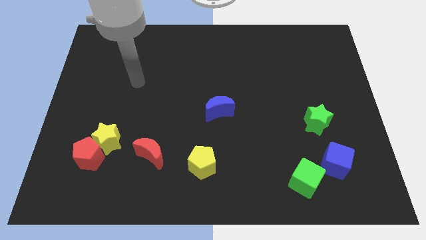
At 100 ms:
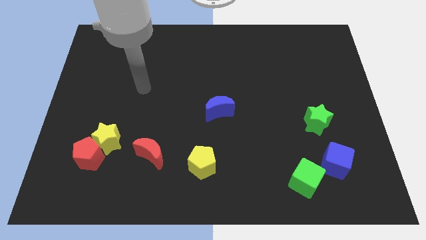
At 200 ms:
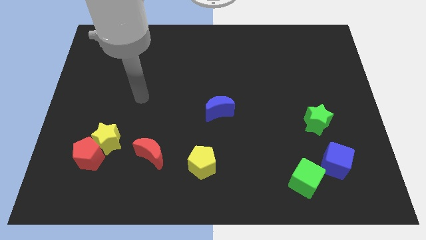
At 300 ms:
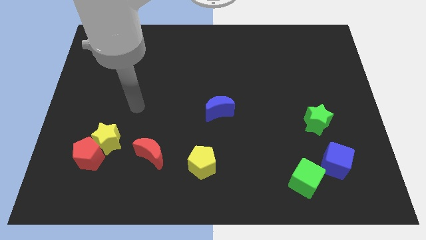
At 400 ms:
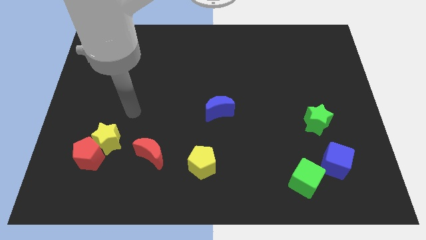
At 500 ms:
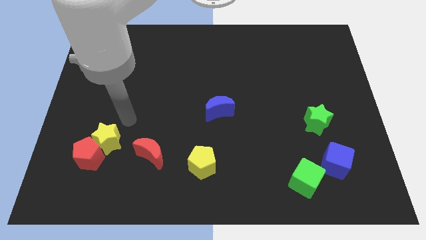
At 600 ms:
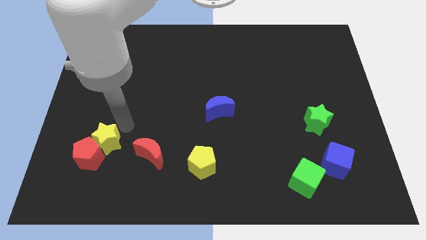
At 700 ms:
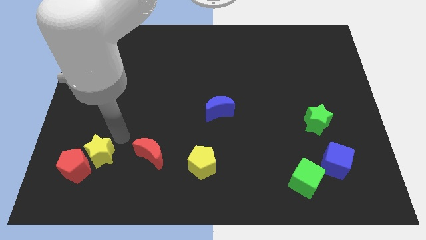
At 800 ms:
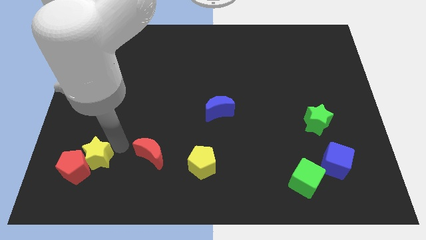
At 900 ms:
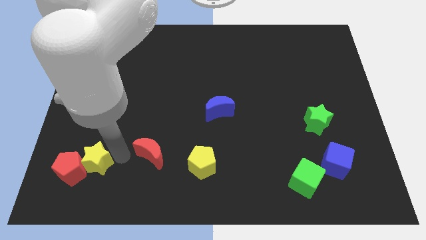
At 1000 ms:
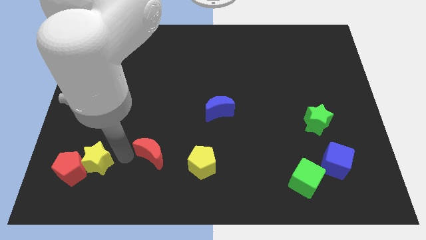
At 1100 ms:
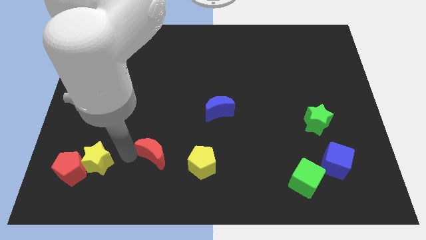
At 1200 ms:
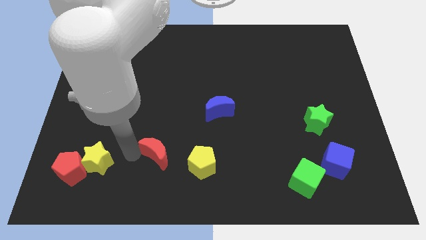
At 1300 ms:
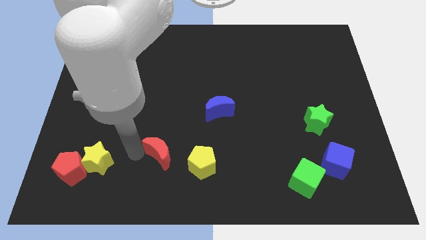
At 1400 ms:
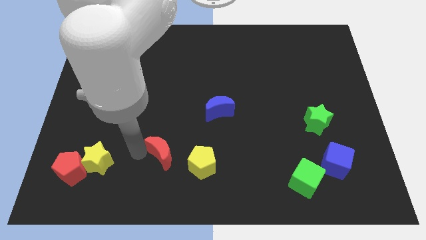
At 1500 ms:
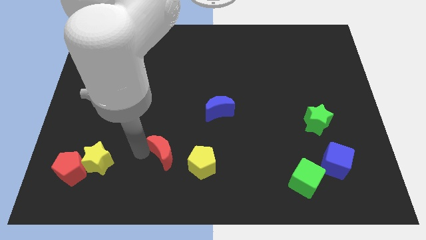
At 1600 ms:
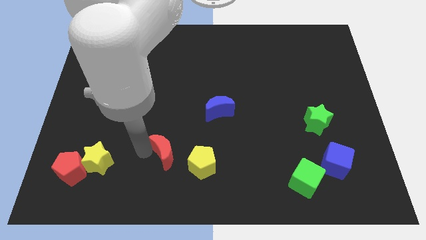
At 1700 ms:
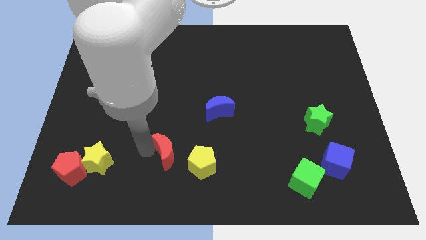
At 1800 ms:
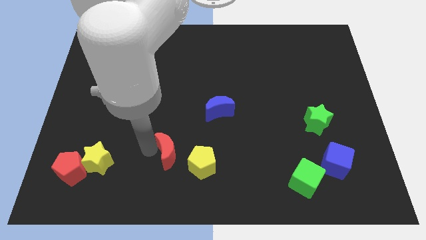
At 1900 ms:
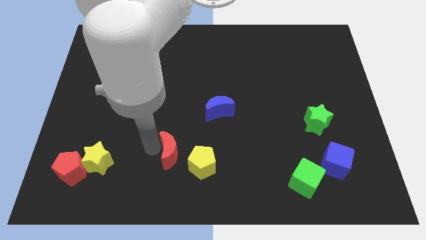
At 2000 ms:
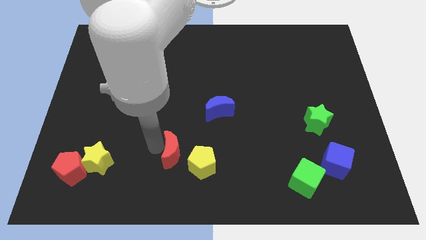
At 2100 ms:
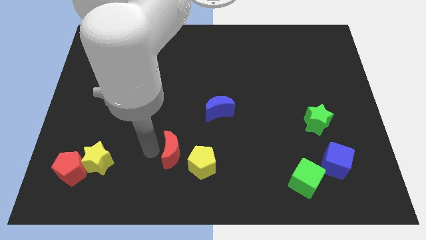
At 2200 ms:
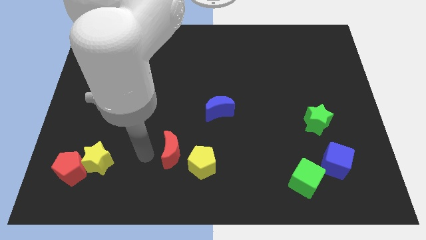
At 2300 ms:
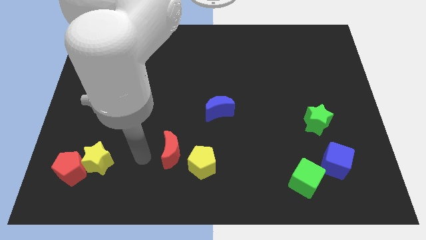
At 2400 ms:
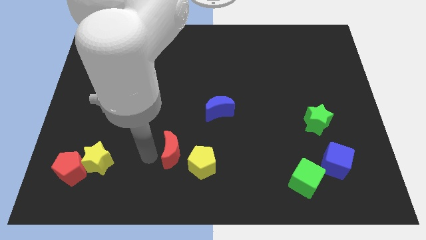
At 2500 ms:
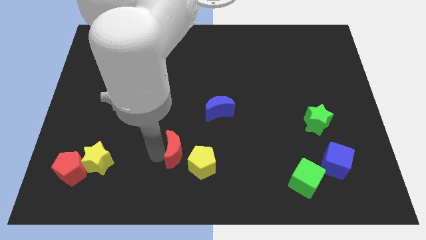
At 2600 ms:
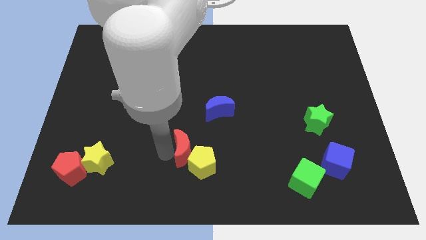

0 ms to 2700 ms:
push the red moon a bit to the right

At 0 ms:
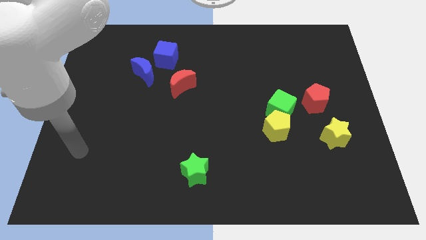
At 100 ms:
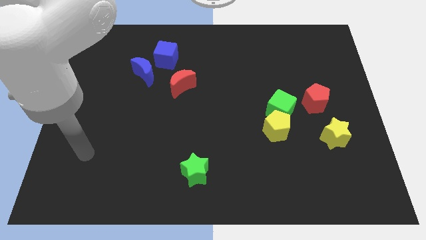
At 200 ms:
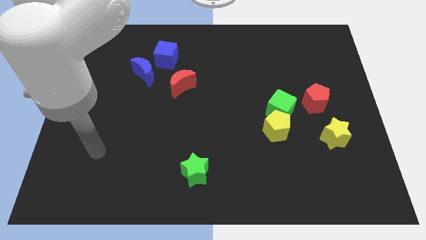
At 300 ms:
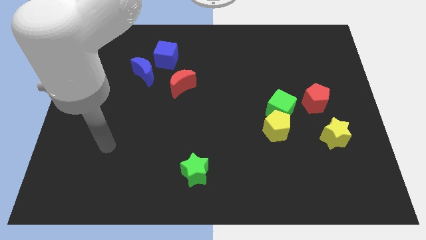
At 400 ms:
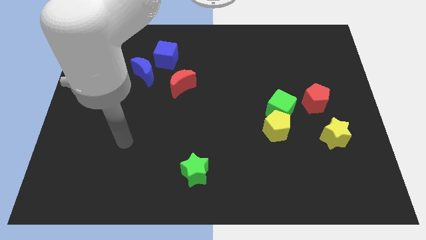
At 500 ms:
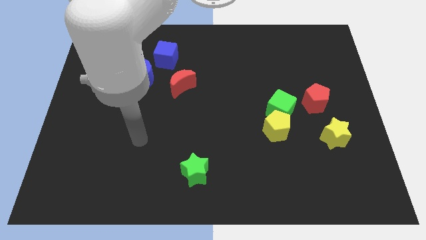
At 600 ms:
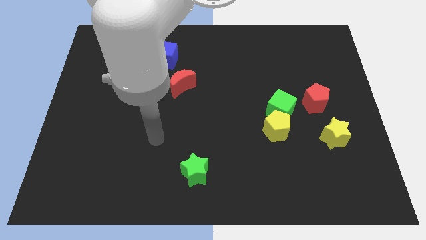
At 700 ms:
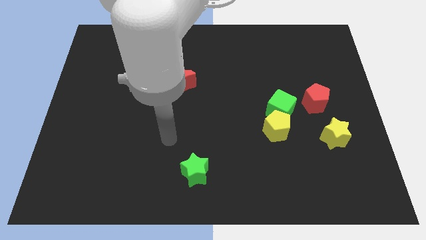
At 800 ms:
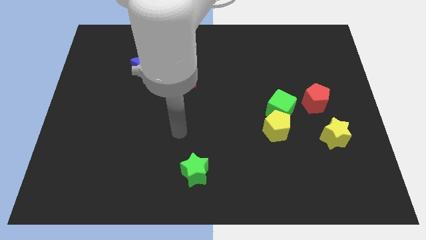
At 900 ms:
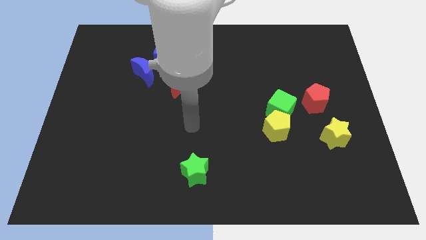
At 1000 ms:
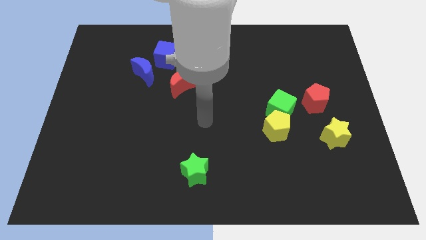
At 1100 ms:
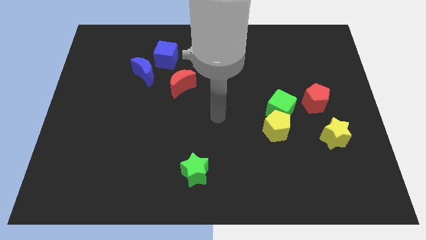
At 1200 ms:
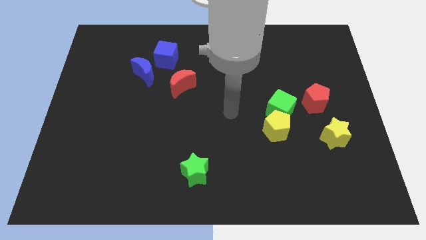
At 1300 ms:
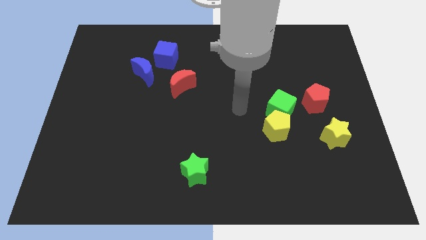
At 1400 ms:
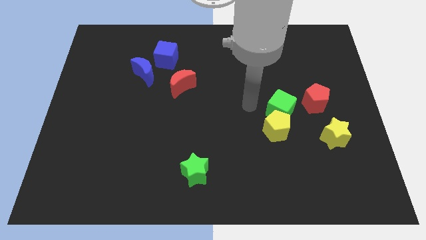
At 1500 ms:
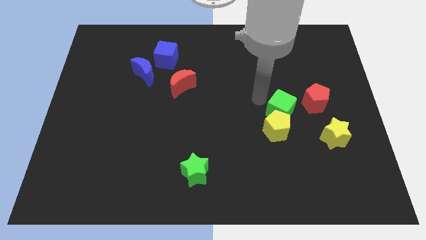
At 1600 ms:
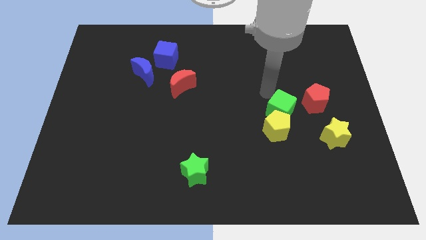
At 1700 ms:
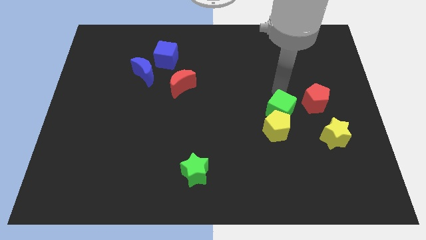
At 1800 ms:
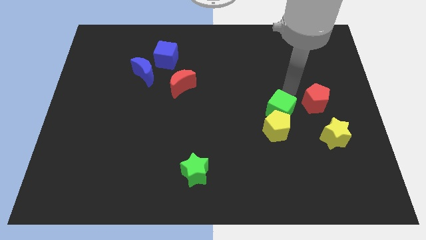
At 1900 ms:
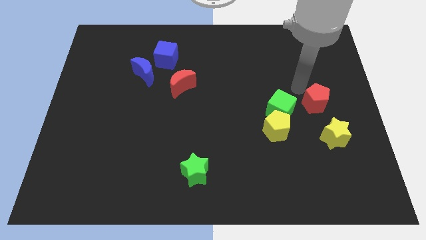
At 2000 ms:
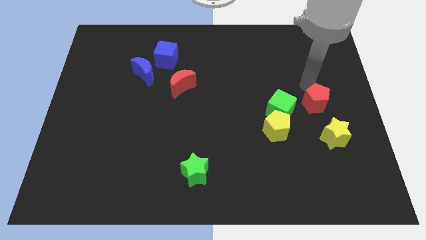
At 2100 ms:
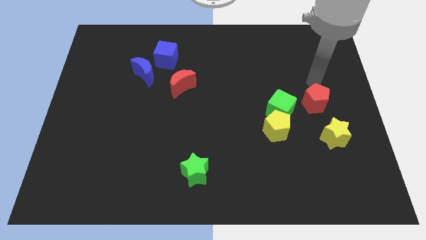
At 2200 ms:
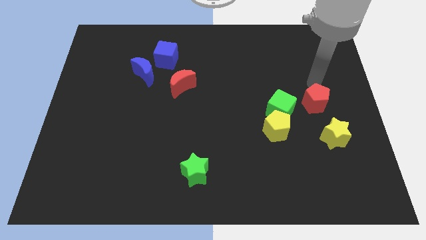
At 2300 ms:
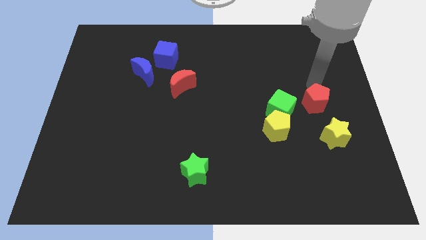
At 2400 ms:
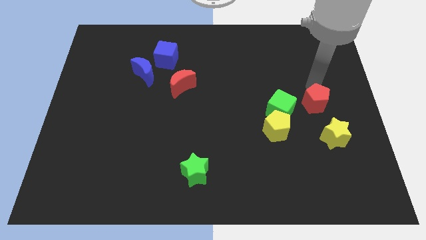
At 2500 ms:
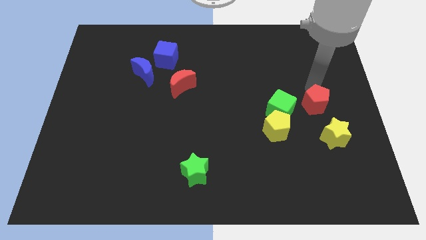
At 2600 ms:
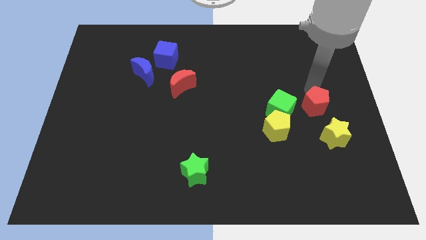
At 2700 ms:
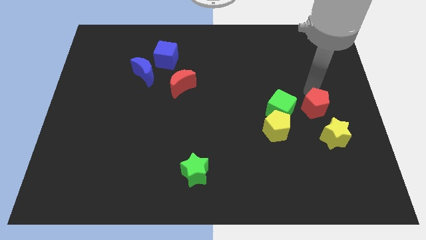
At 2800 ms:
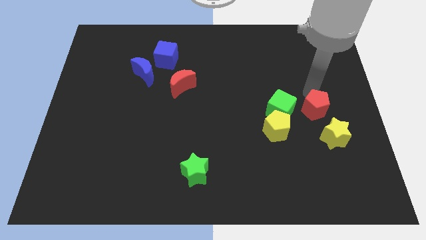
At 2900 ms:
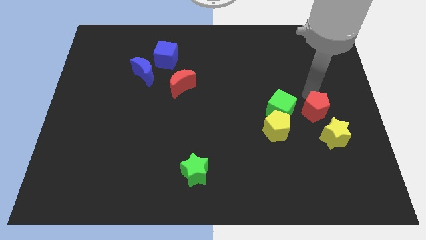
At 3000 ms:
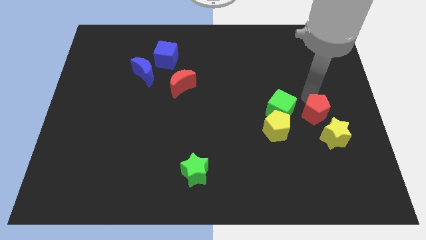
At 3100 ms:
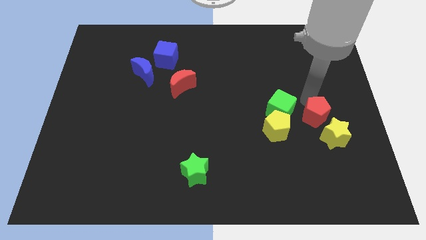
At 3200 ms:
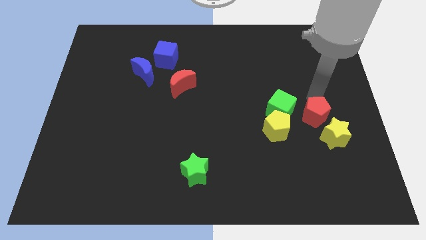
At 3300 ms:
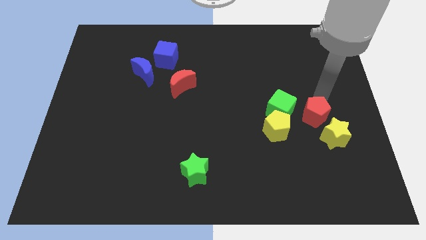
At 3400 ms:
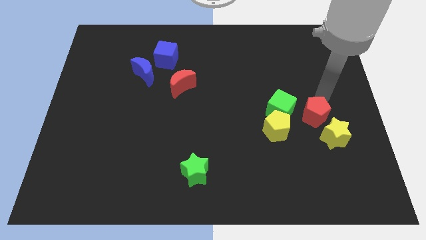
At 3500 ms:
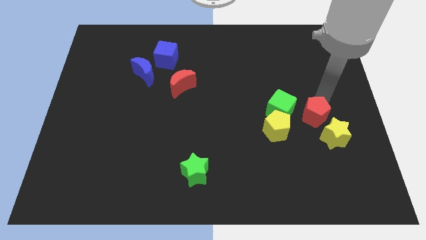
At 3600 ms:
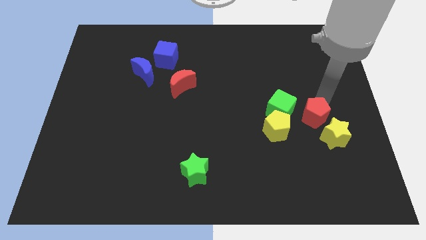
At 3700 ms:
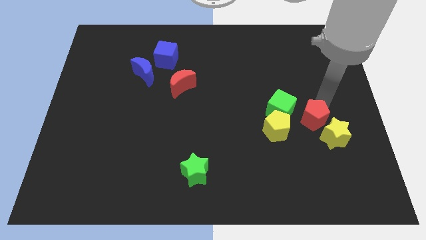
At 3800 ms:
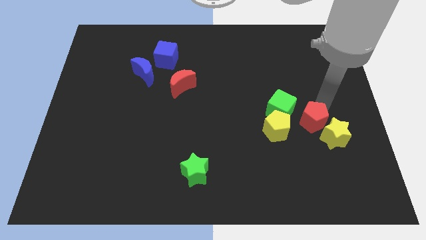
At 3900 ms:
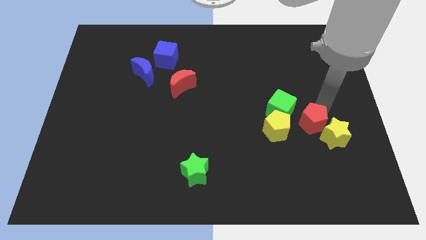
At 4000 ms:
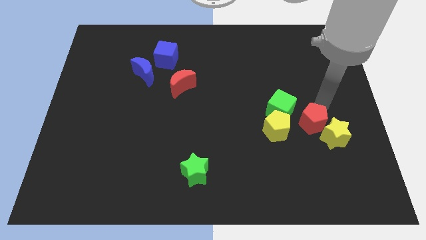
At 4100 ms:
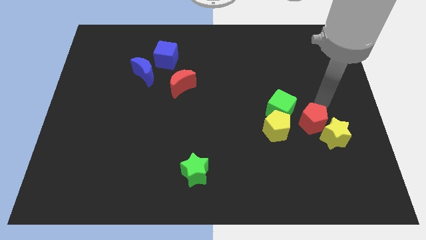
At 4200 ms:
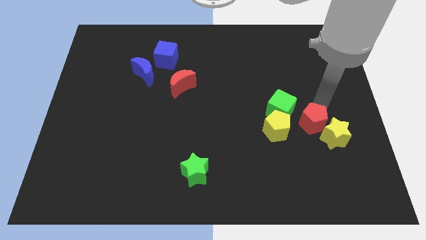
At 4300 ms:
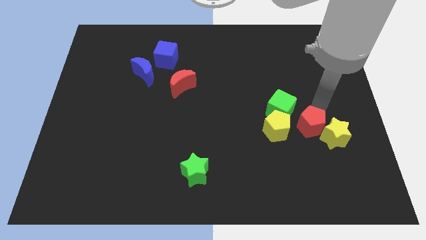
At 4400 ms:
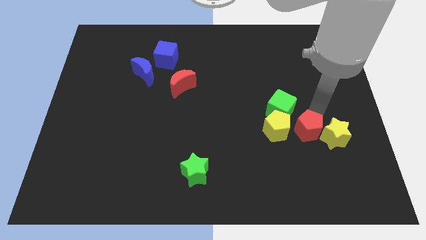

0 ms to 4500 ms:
push the red pentagon downwards and to the left somewhat

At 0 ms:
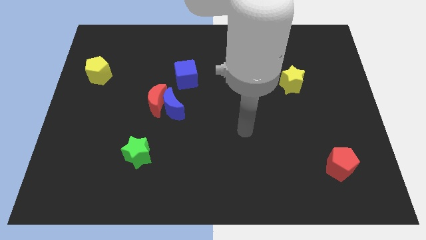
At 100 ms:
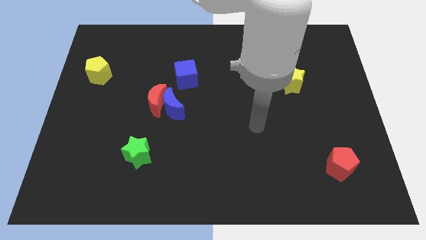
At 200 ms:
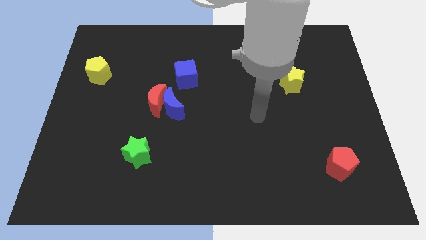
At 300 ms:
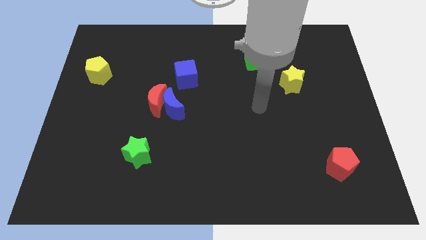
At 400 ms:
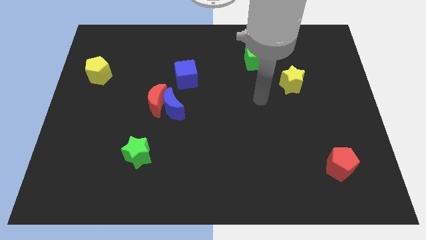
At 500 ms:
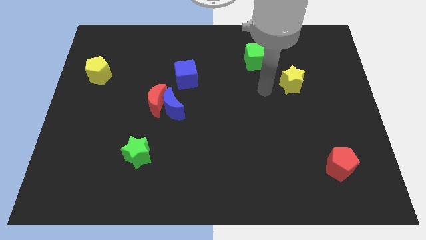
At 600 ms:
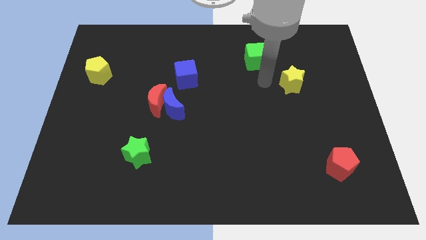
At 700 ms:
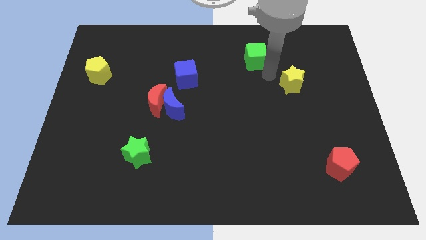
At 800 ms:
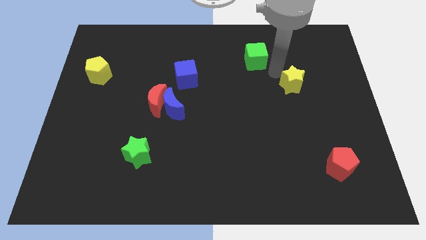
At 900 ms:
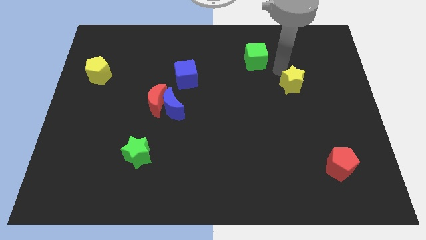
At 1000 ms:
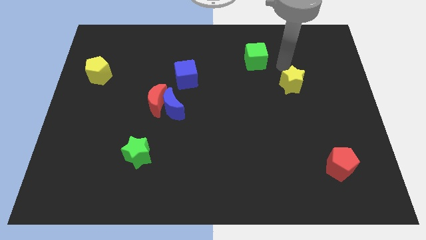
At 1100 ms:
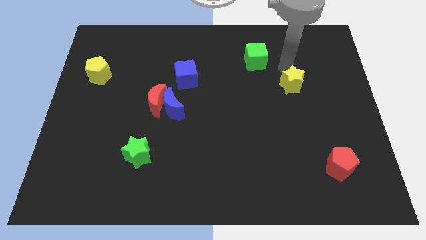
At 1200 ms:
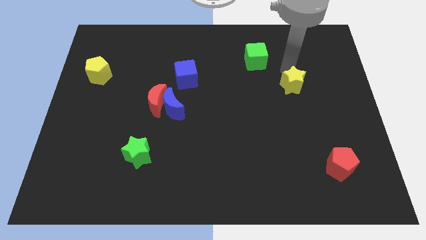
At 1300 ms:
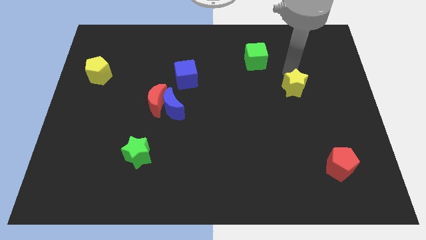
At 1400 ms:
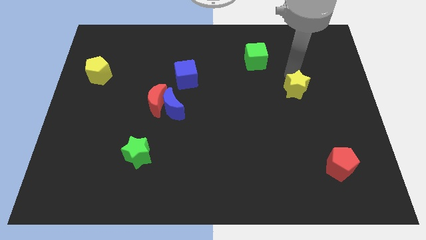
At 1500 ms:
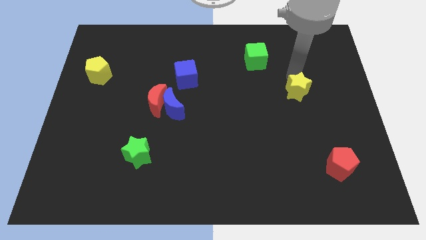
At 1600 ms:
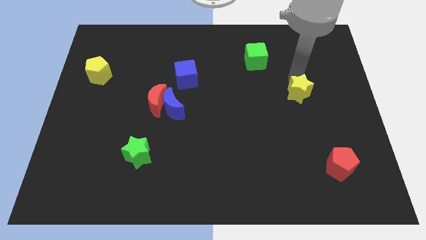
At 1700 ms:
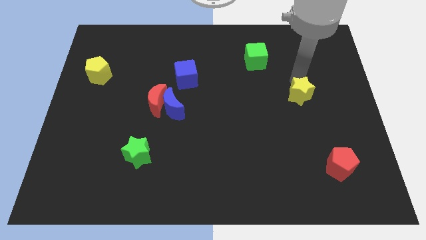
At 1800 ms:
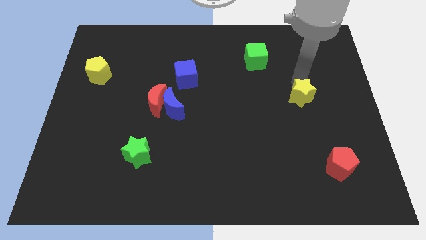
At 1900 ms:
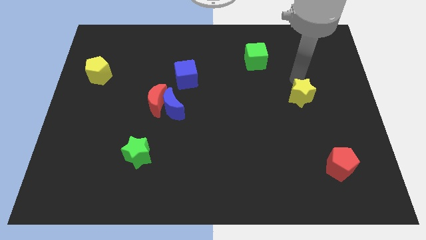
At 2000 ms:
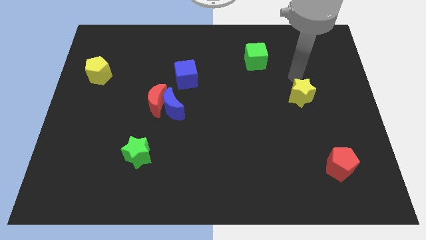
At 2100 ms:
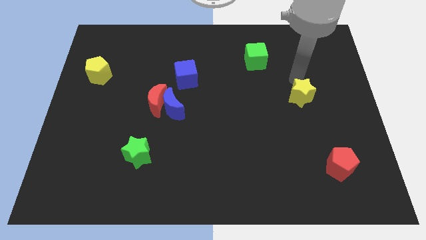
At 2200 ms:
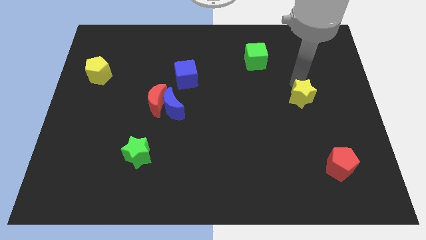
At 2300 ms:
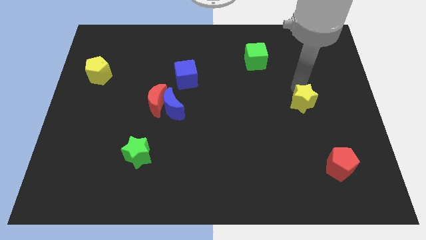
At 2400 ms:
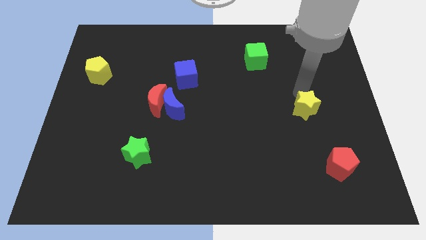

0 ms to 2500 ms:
slightly move the yellow star downwards
